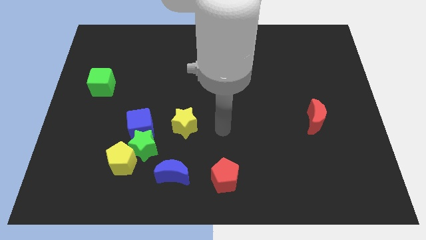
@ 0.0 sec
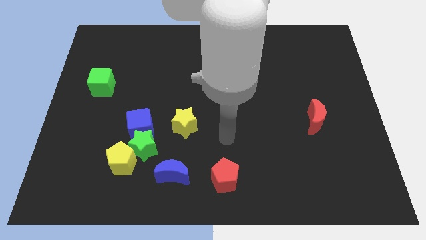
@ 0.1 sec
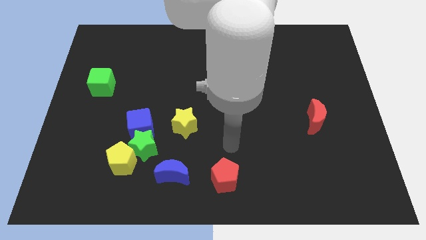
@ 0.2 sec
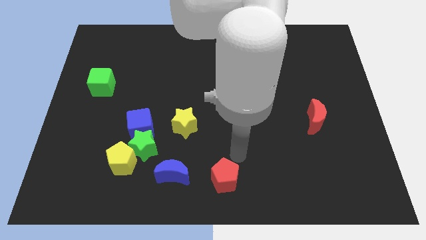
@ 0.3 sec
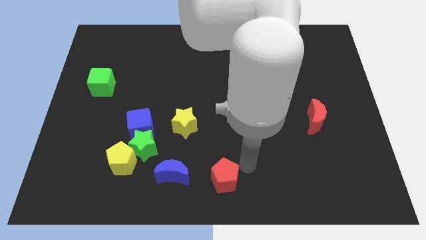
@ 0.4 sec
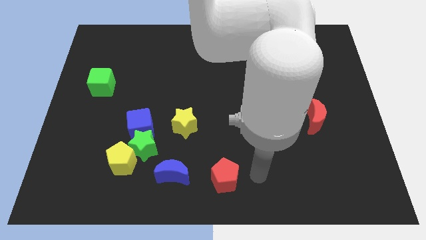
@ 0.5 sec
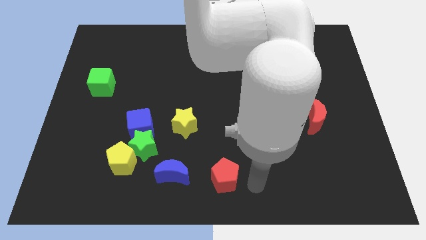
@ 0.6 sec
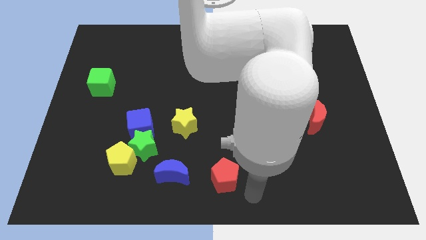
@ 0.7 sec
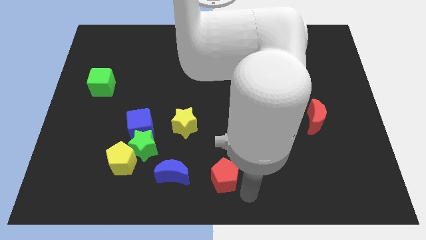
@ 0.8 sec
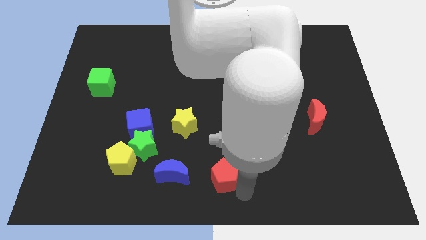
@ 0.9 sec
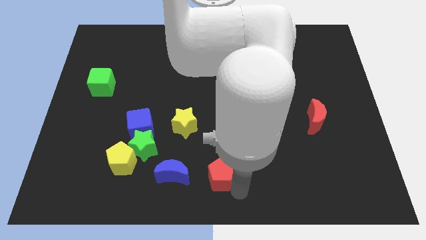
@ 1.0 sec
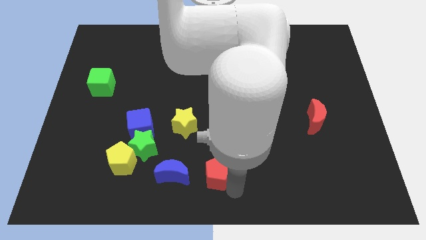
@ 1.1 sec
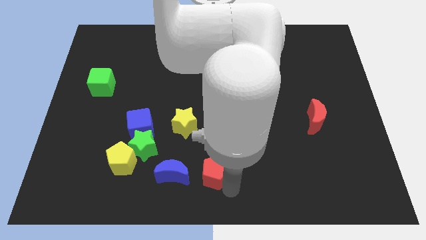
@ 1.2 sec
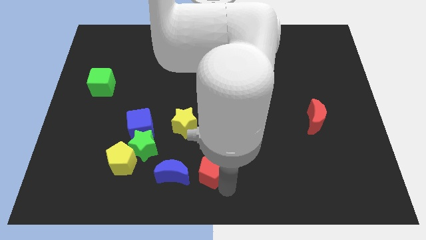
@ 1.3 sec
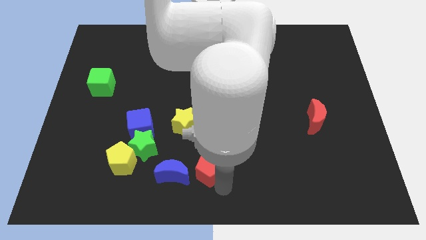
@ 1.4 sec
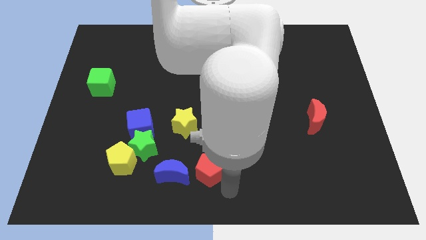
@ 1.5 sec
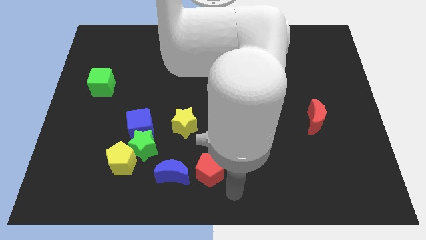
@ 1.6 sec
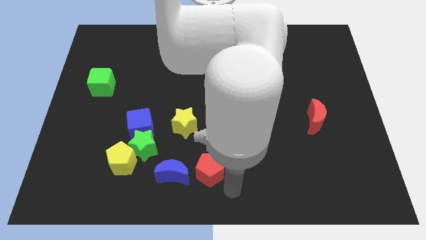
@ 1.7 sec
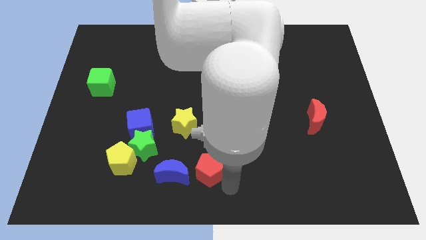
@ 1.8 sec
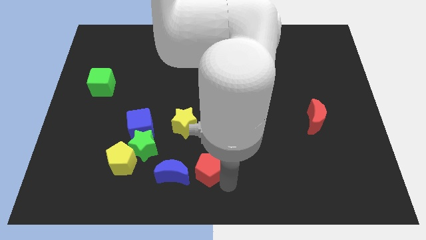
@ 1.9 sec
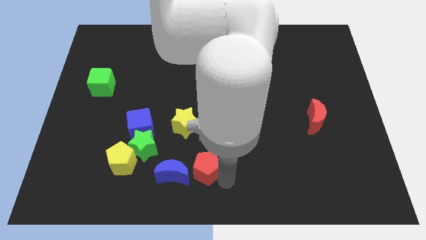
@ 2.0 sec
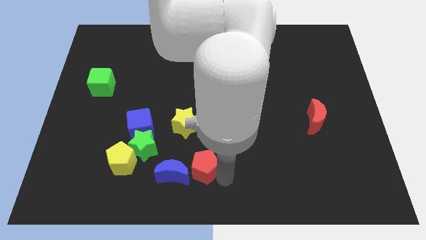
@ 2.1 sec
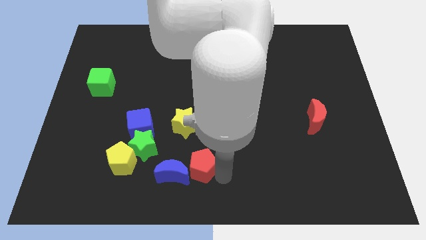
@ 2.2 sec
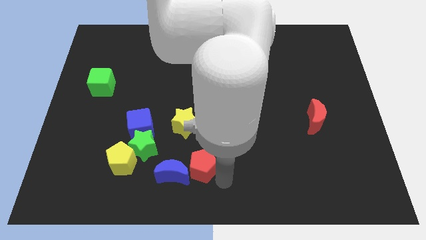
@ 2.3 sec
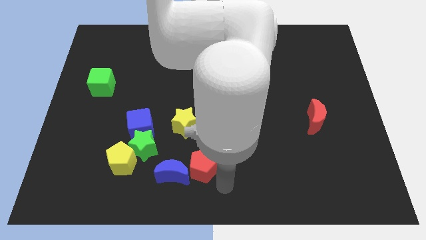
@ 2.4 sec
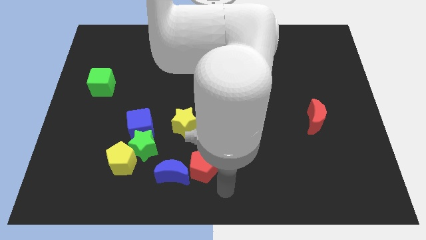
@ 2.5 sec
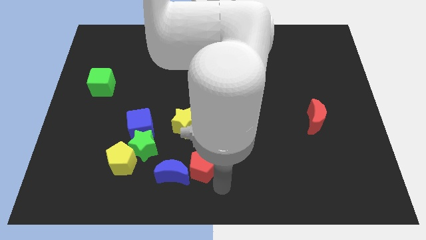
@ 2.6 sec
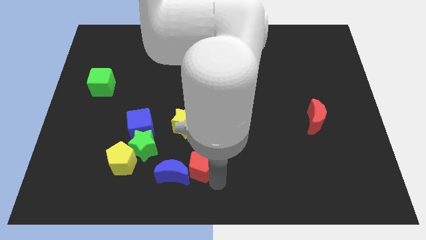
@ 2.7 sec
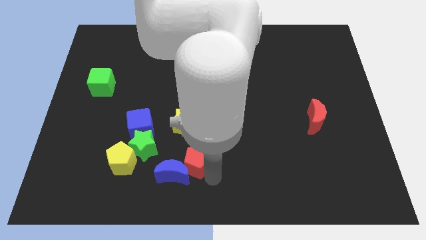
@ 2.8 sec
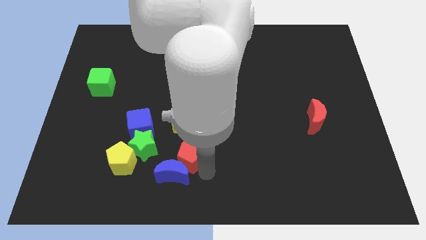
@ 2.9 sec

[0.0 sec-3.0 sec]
slightly slide the red pentagon upwards and then to the left

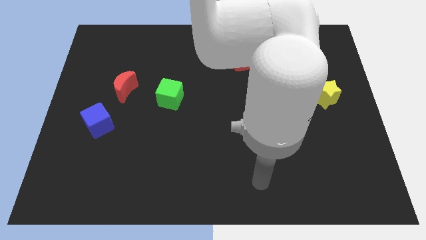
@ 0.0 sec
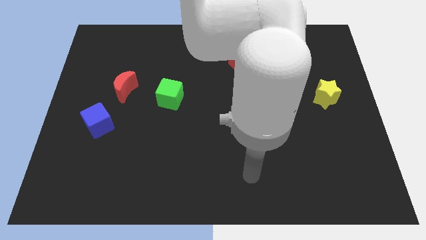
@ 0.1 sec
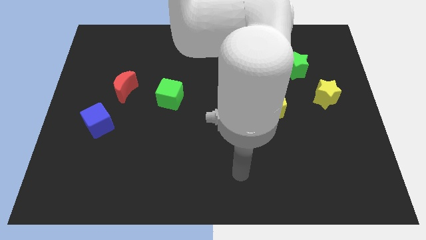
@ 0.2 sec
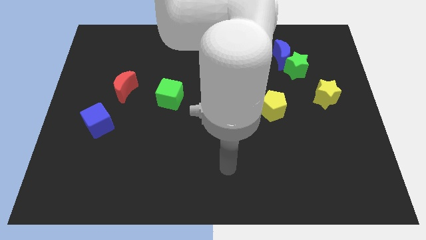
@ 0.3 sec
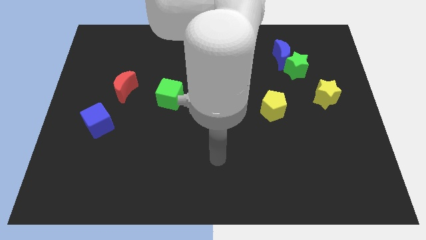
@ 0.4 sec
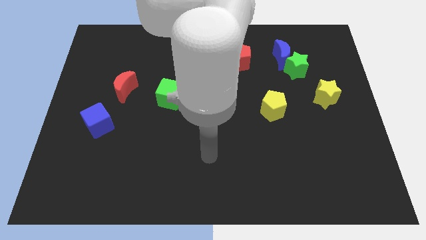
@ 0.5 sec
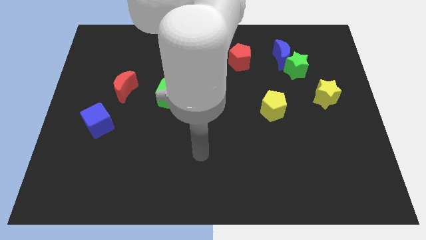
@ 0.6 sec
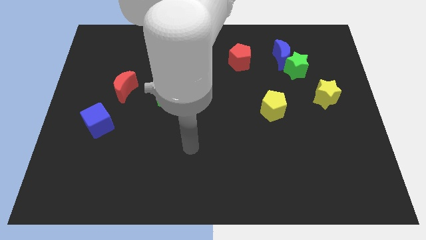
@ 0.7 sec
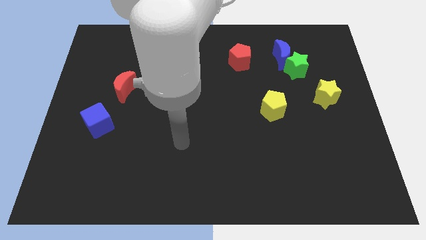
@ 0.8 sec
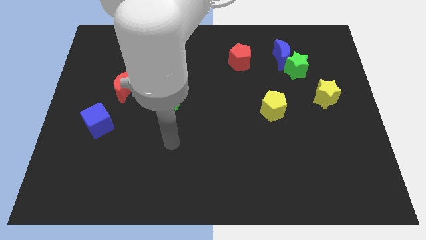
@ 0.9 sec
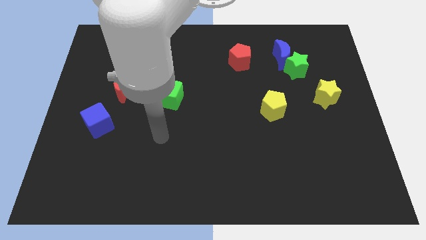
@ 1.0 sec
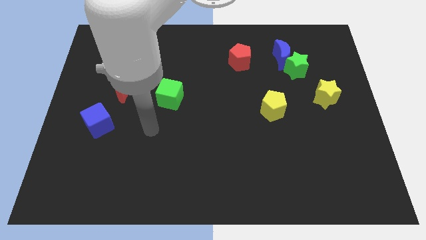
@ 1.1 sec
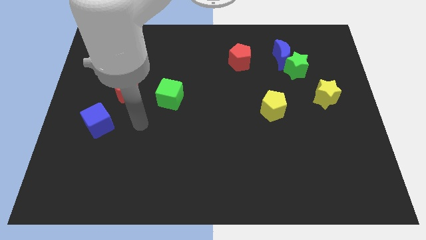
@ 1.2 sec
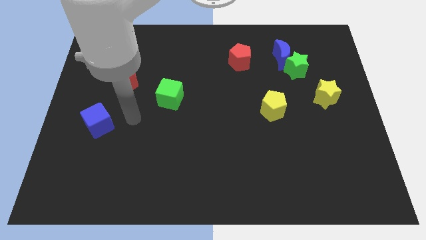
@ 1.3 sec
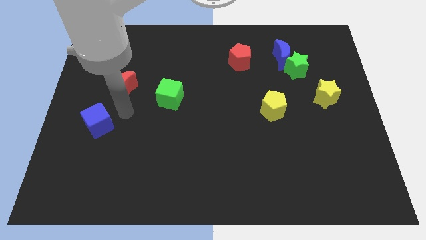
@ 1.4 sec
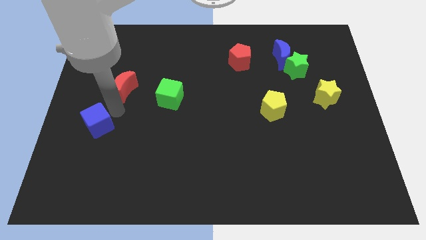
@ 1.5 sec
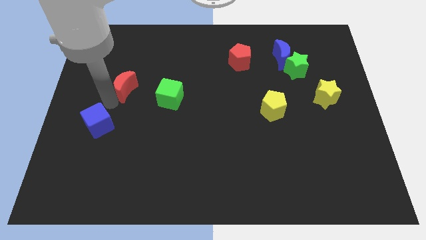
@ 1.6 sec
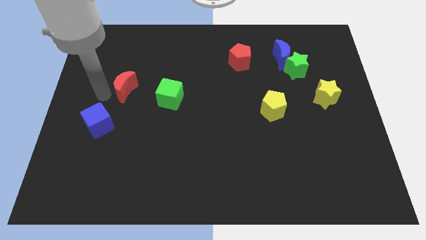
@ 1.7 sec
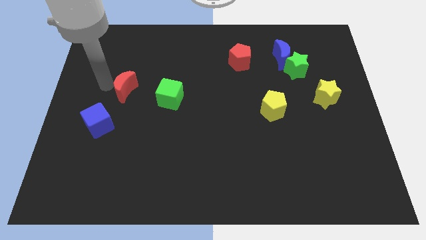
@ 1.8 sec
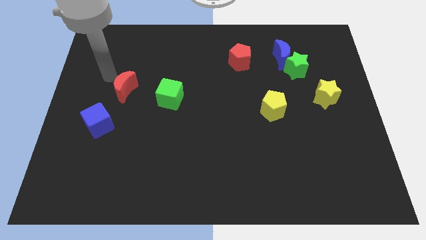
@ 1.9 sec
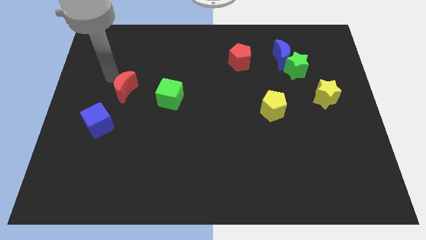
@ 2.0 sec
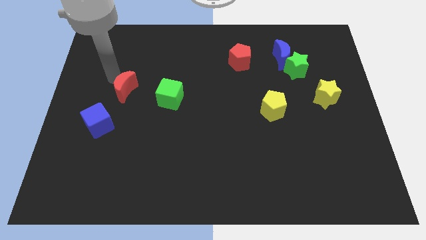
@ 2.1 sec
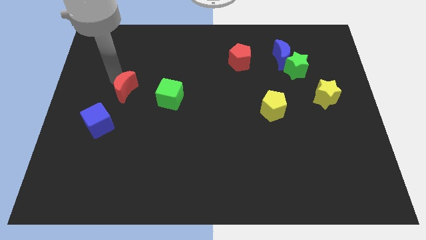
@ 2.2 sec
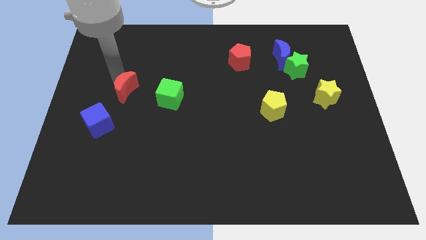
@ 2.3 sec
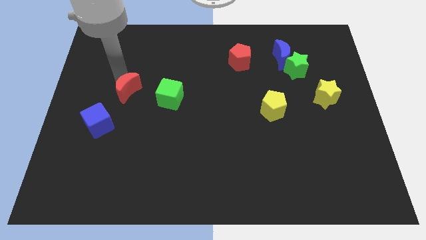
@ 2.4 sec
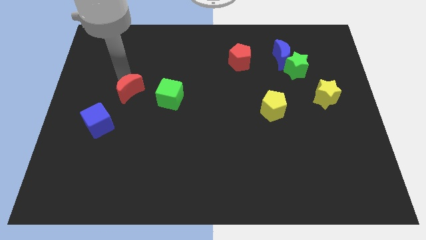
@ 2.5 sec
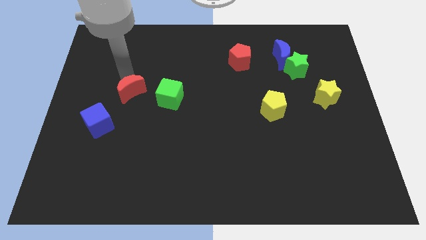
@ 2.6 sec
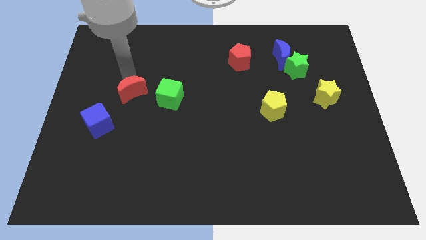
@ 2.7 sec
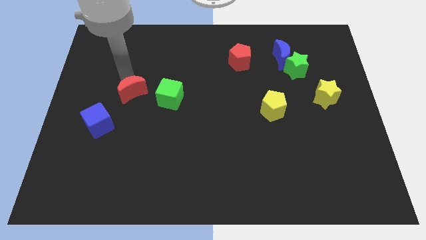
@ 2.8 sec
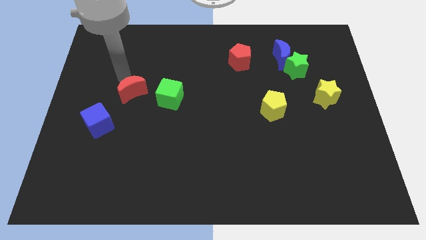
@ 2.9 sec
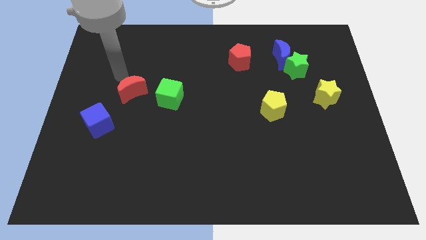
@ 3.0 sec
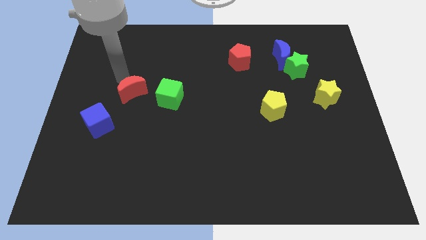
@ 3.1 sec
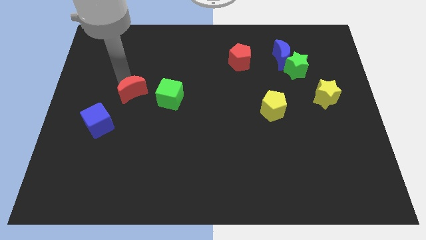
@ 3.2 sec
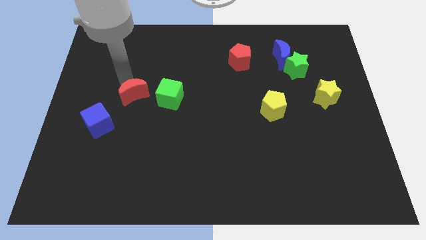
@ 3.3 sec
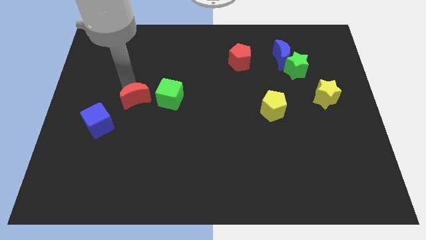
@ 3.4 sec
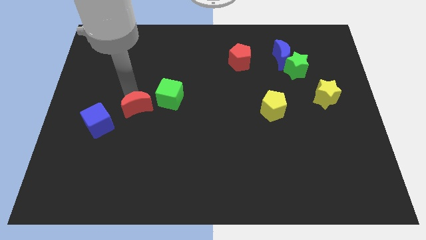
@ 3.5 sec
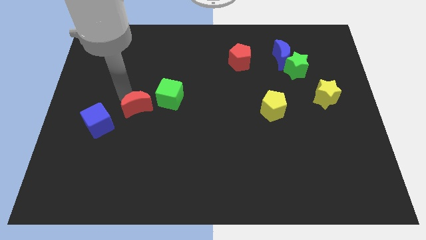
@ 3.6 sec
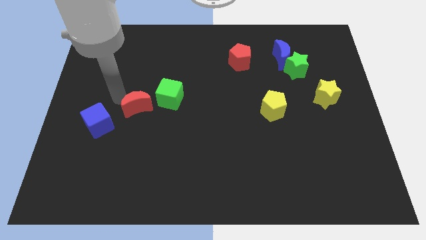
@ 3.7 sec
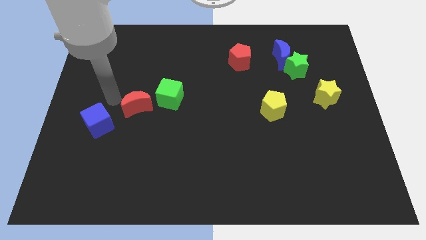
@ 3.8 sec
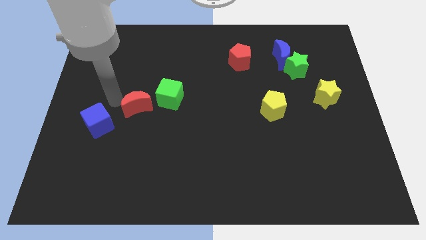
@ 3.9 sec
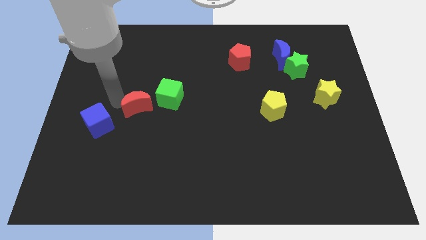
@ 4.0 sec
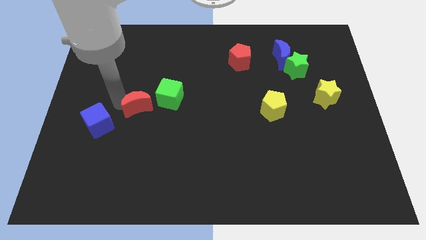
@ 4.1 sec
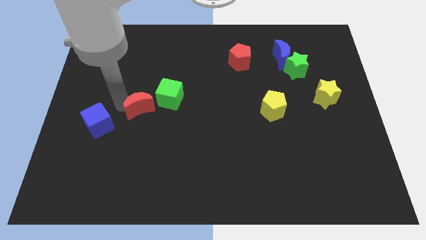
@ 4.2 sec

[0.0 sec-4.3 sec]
slide the red moon slightly diagonally downwards and right

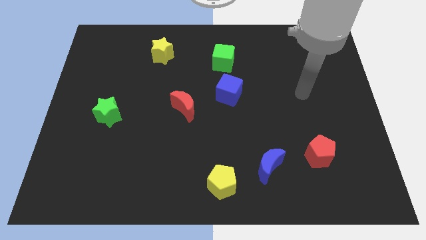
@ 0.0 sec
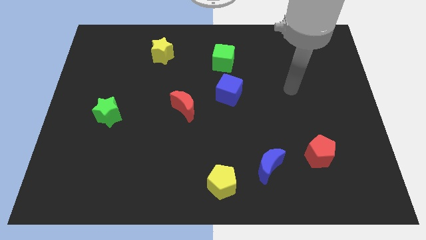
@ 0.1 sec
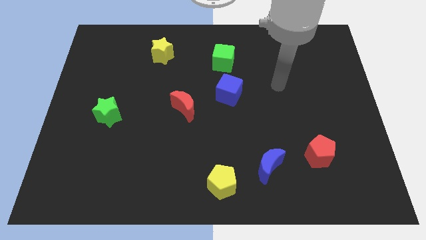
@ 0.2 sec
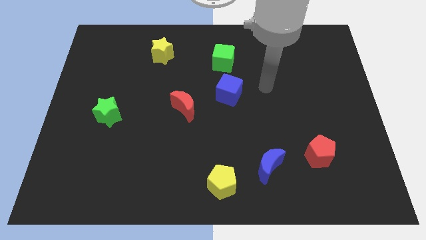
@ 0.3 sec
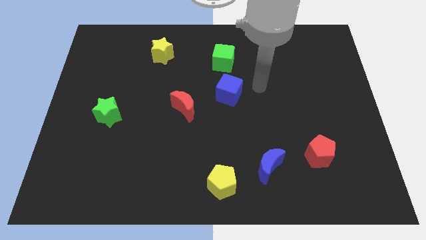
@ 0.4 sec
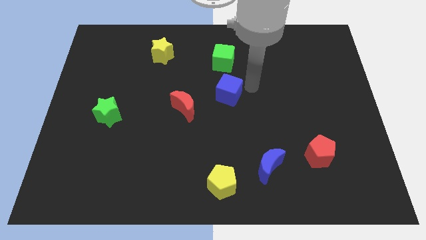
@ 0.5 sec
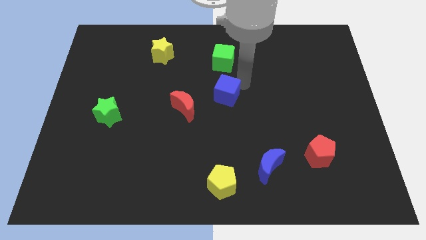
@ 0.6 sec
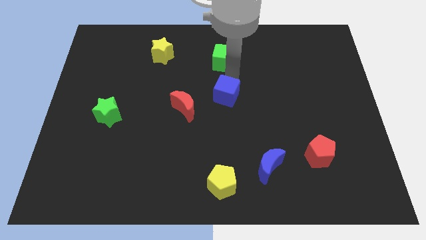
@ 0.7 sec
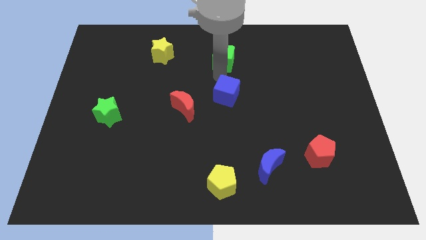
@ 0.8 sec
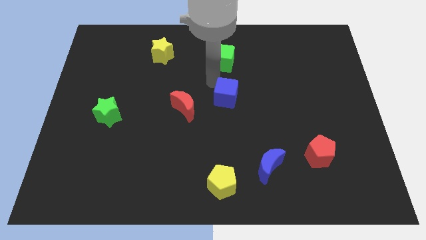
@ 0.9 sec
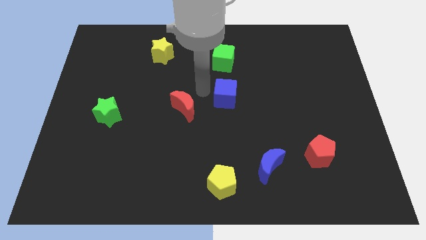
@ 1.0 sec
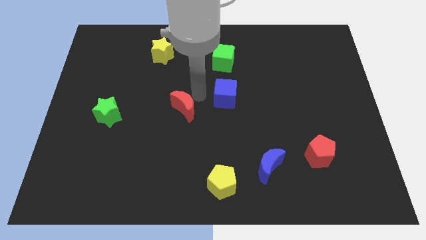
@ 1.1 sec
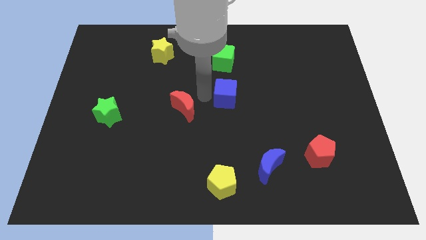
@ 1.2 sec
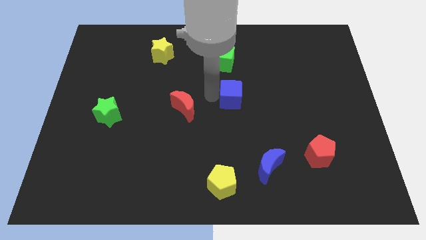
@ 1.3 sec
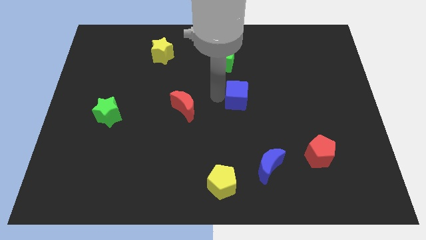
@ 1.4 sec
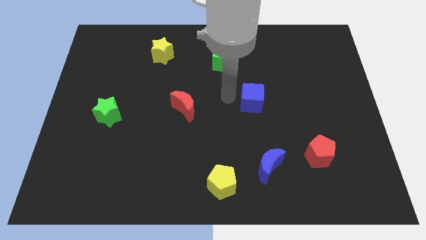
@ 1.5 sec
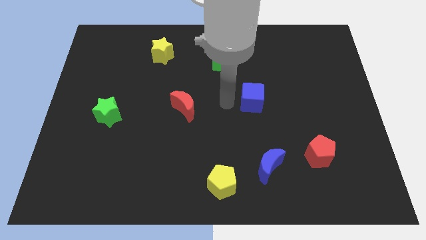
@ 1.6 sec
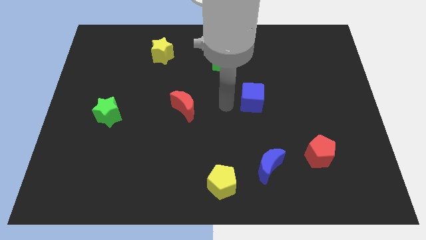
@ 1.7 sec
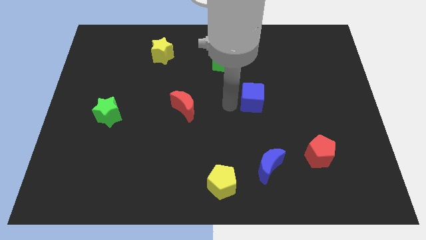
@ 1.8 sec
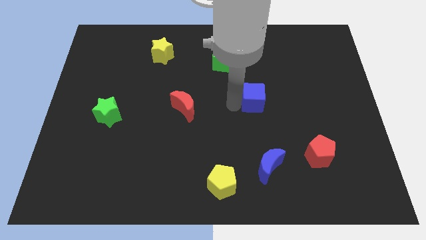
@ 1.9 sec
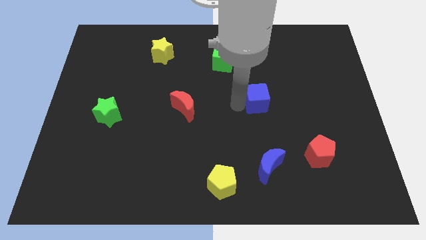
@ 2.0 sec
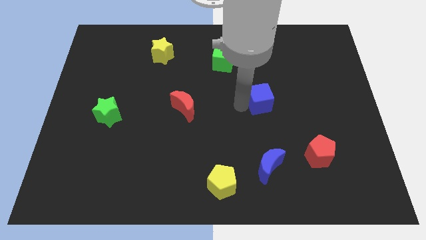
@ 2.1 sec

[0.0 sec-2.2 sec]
move the blue cube right a little bit
